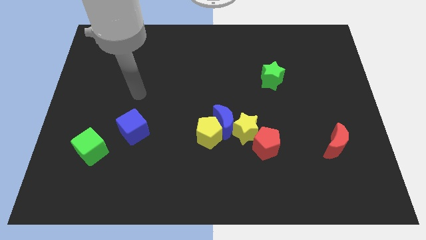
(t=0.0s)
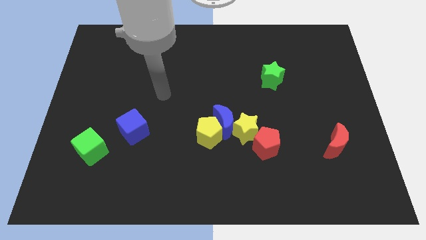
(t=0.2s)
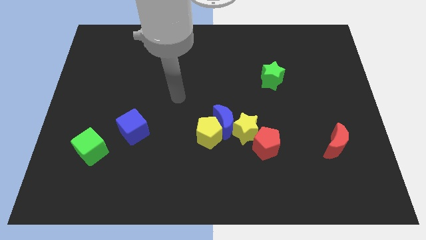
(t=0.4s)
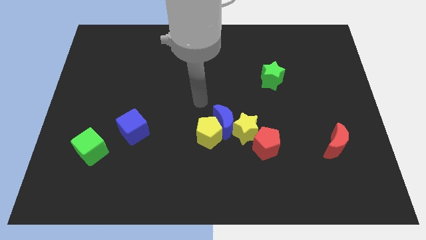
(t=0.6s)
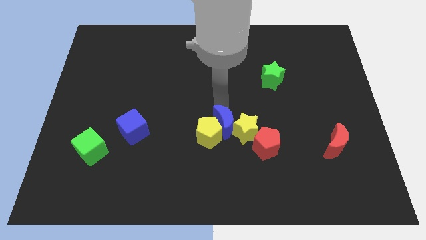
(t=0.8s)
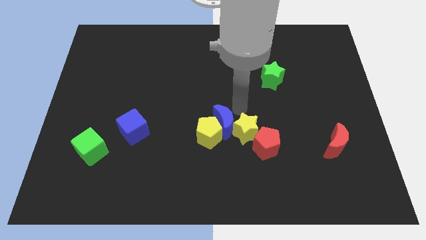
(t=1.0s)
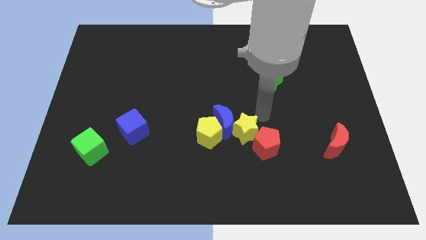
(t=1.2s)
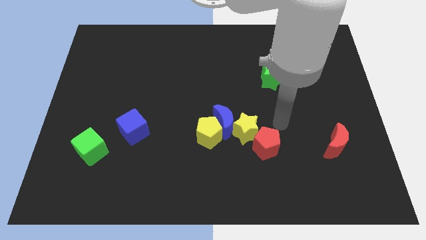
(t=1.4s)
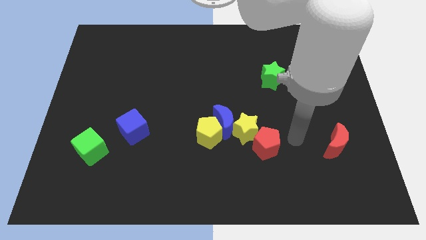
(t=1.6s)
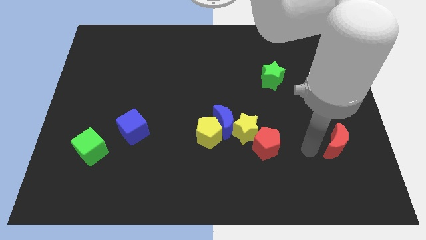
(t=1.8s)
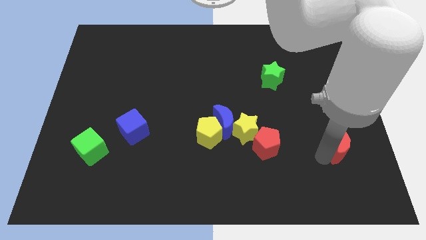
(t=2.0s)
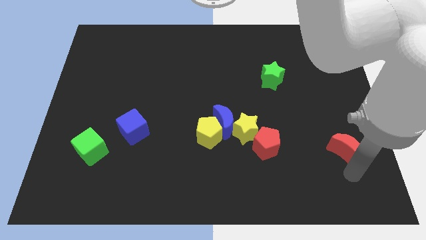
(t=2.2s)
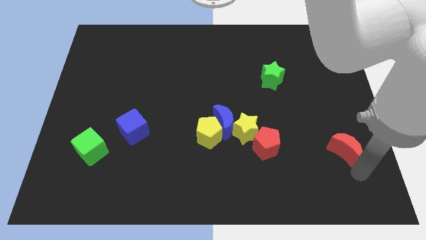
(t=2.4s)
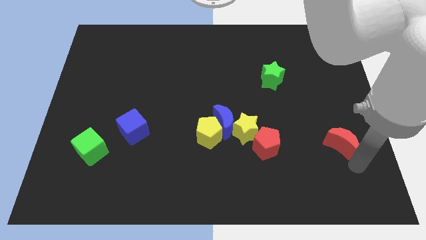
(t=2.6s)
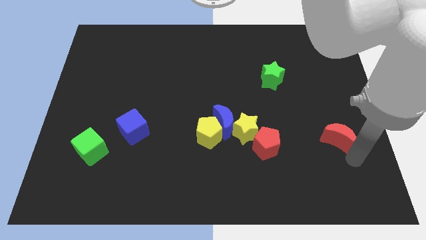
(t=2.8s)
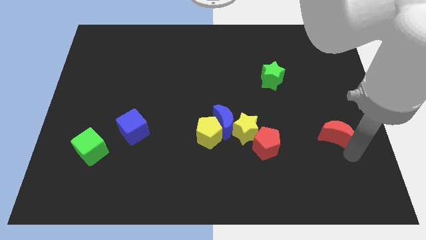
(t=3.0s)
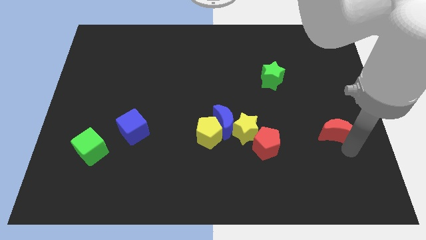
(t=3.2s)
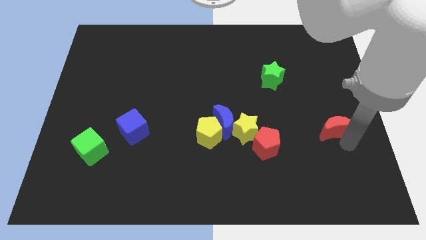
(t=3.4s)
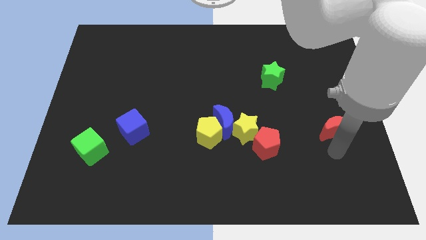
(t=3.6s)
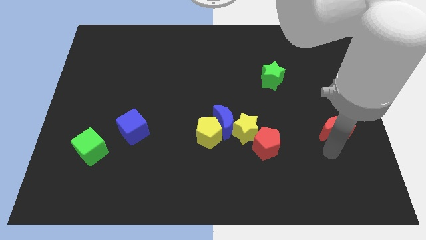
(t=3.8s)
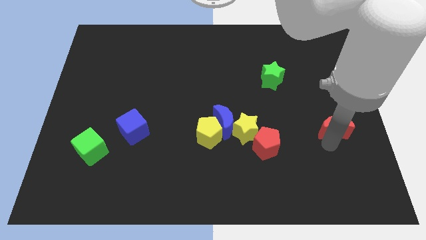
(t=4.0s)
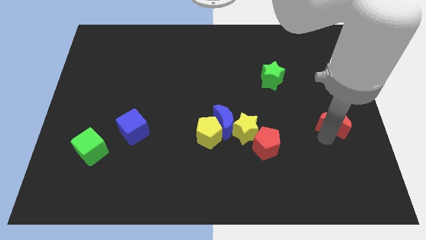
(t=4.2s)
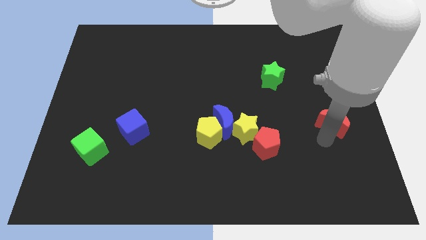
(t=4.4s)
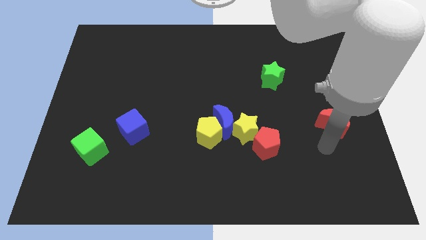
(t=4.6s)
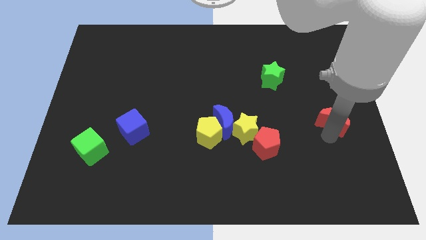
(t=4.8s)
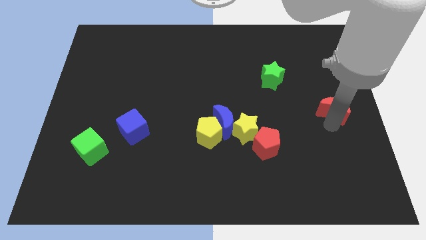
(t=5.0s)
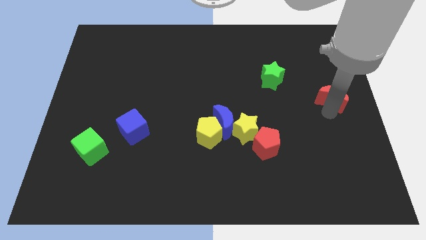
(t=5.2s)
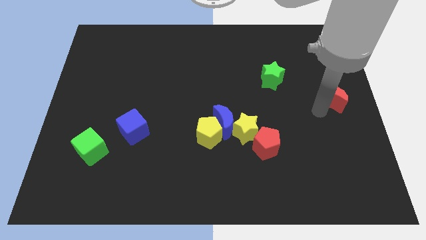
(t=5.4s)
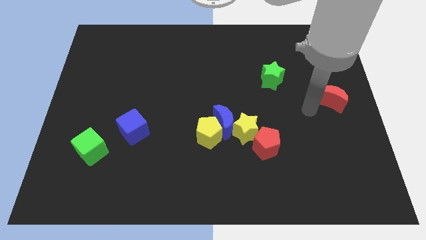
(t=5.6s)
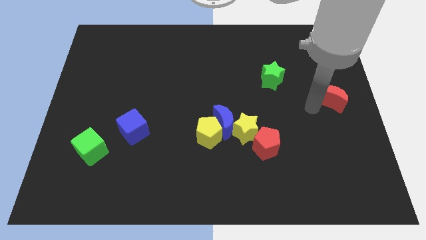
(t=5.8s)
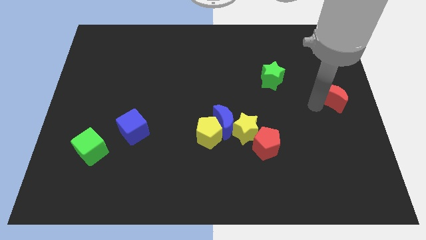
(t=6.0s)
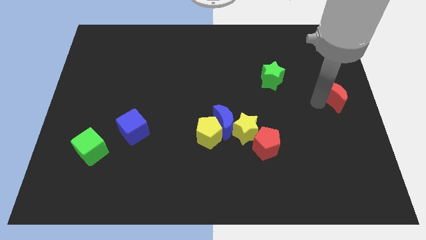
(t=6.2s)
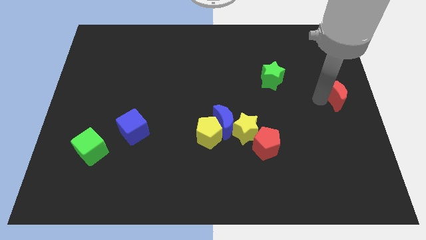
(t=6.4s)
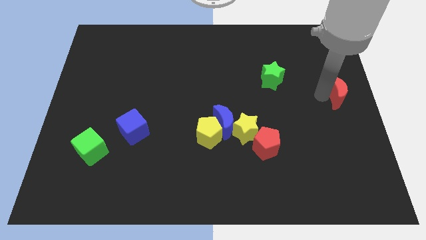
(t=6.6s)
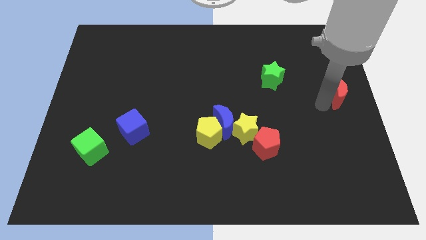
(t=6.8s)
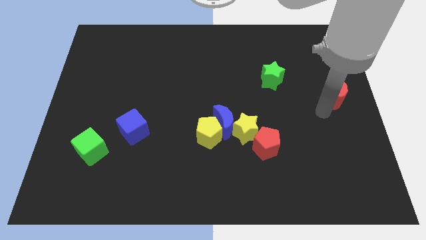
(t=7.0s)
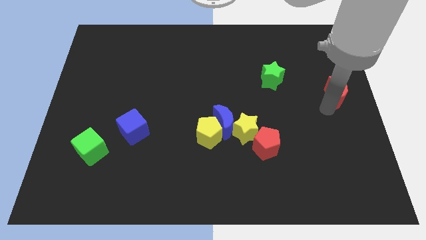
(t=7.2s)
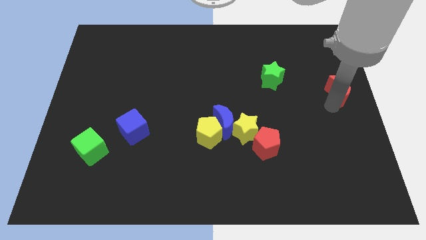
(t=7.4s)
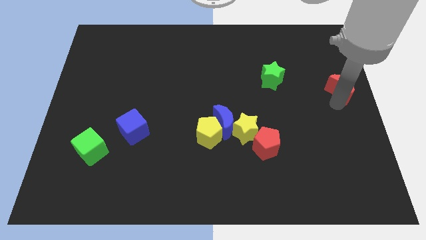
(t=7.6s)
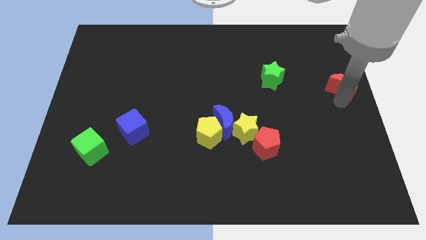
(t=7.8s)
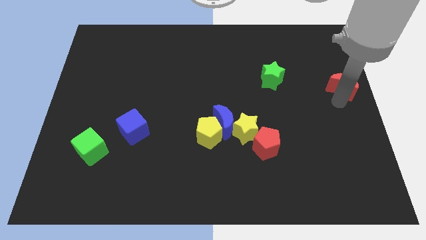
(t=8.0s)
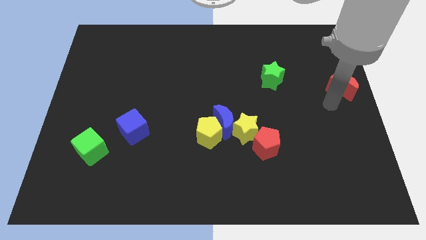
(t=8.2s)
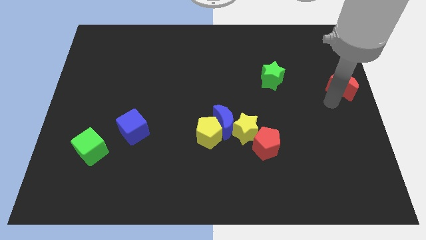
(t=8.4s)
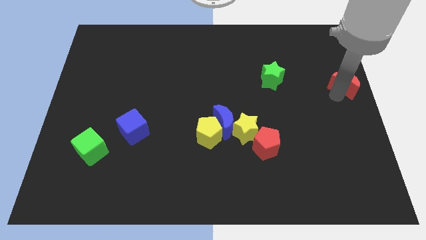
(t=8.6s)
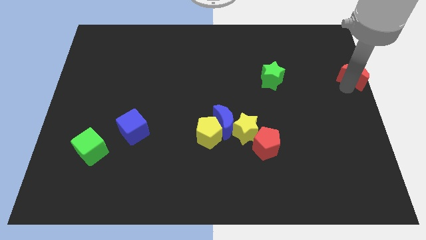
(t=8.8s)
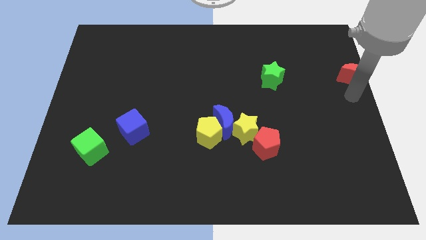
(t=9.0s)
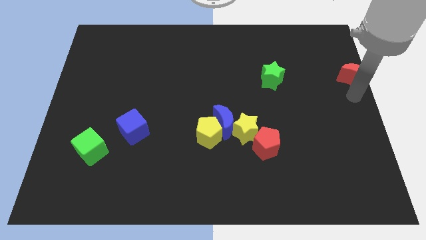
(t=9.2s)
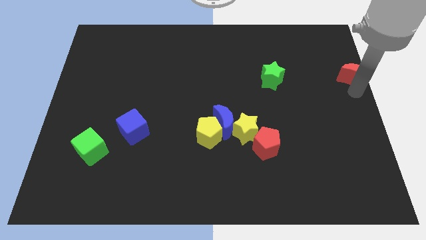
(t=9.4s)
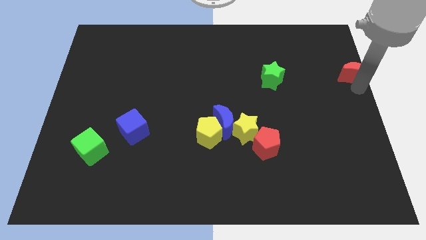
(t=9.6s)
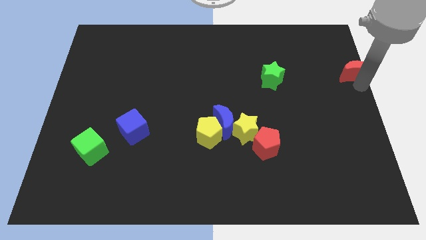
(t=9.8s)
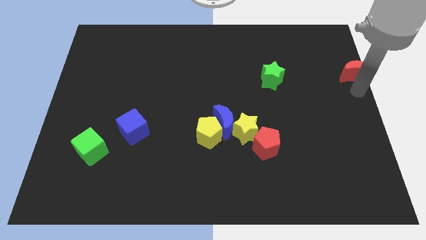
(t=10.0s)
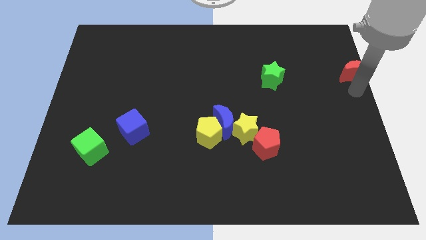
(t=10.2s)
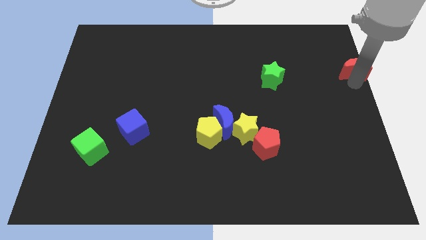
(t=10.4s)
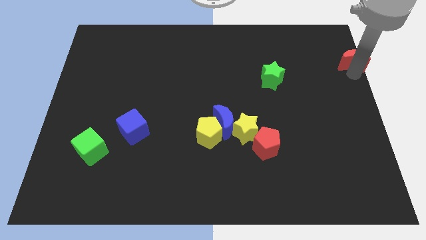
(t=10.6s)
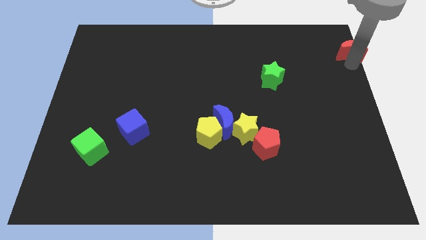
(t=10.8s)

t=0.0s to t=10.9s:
slide the red moon to the top right corner
